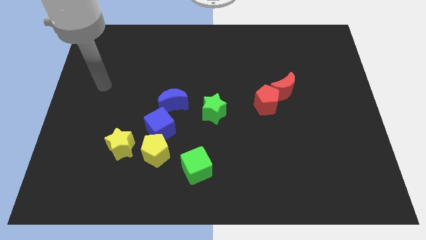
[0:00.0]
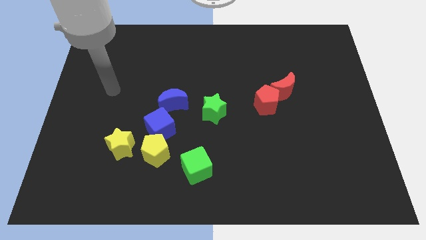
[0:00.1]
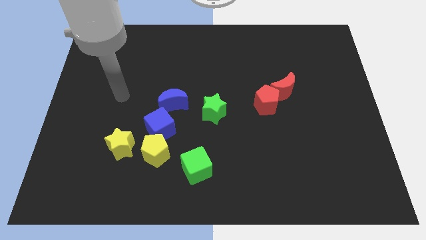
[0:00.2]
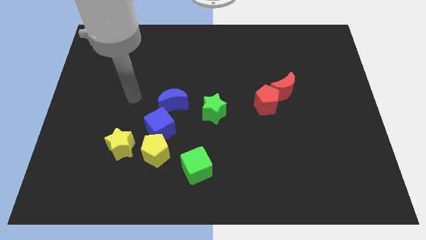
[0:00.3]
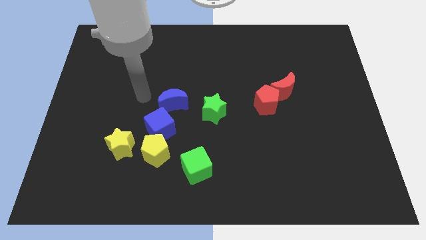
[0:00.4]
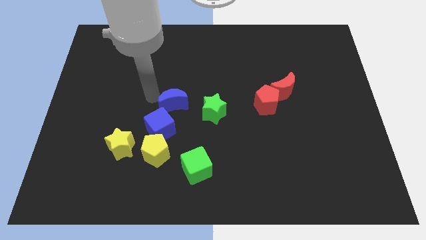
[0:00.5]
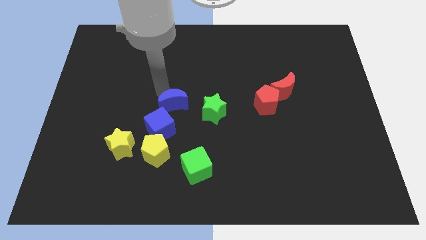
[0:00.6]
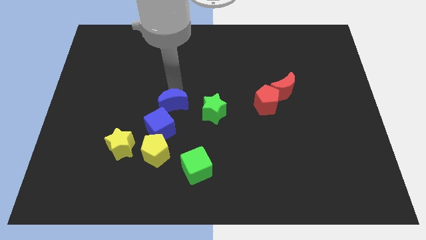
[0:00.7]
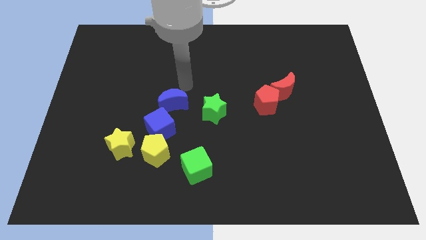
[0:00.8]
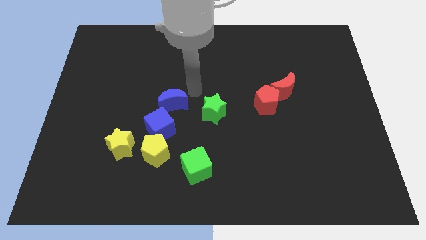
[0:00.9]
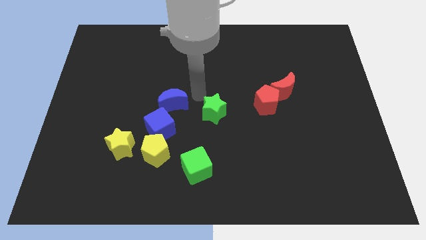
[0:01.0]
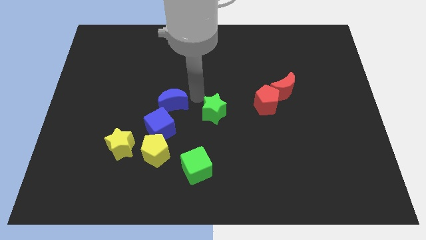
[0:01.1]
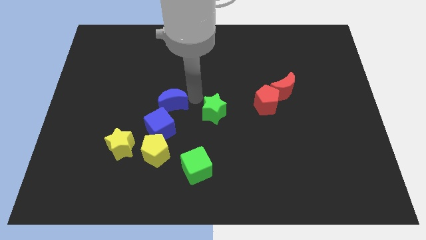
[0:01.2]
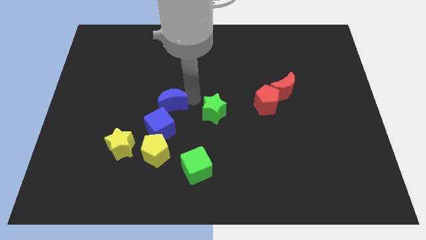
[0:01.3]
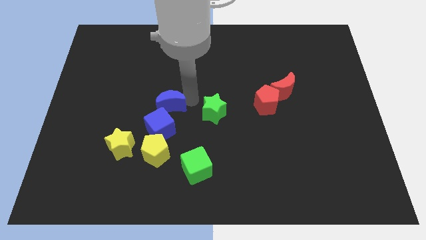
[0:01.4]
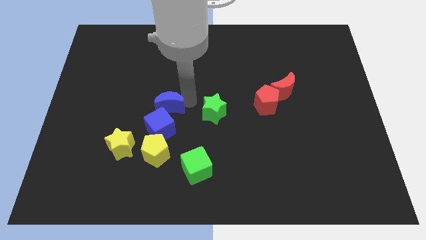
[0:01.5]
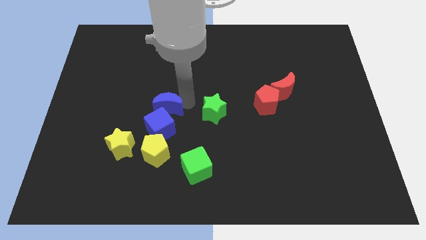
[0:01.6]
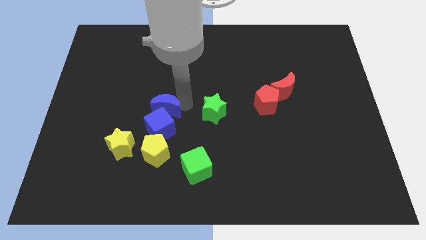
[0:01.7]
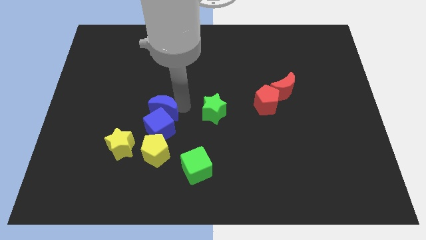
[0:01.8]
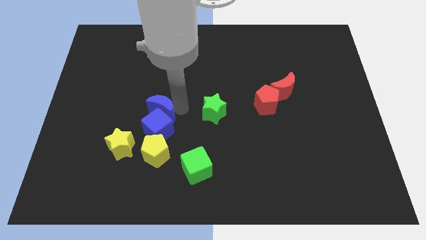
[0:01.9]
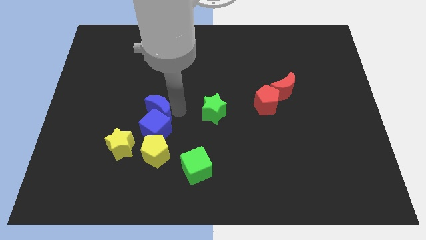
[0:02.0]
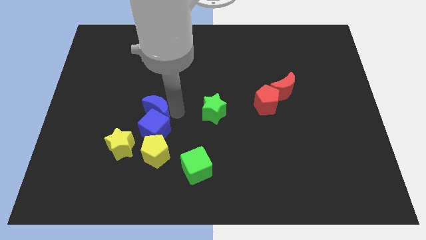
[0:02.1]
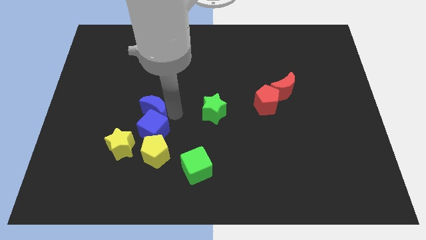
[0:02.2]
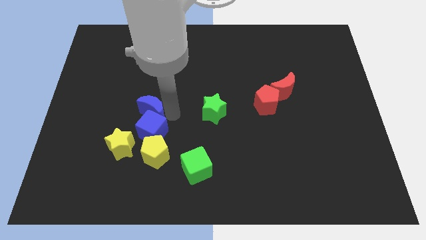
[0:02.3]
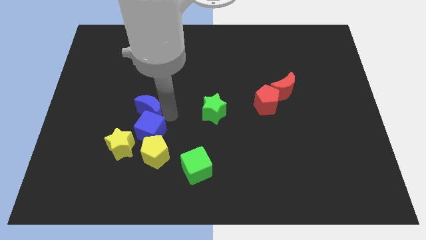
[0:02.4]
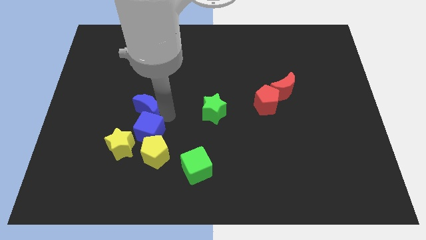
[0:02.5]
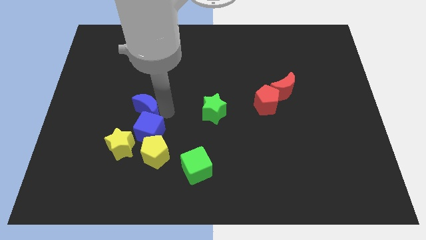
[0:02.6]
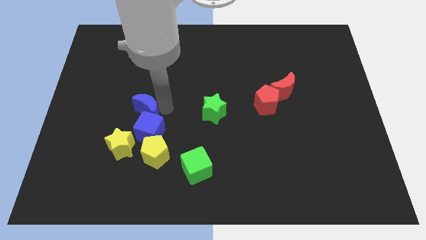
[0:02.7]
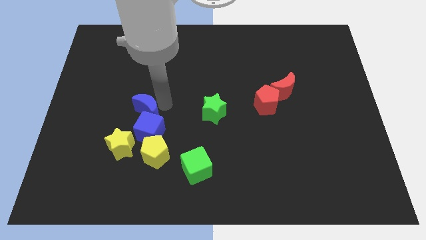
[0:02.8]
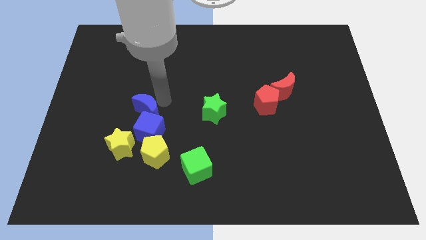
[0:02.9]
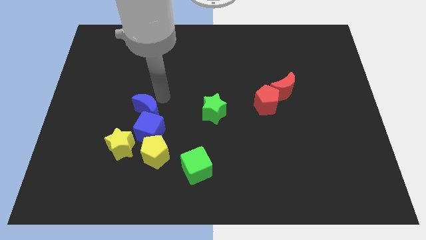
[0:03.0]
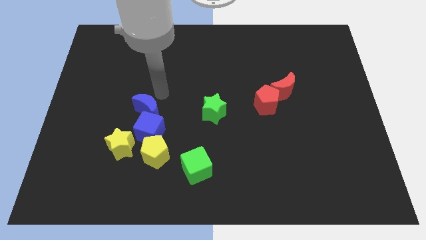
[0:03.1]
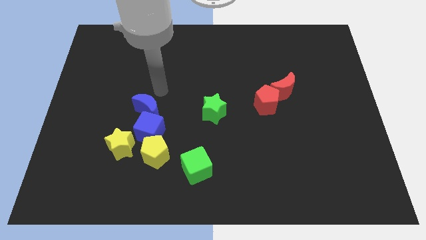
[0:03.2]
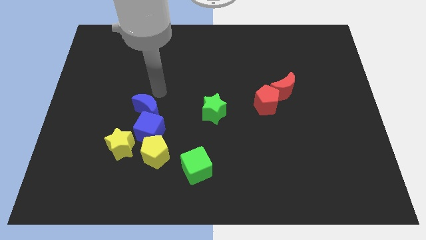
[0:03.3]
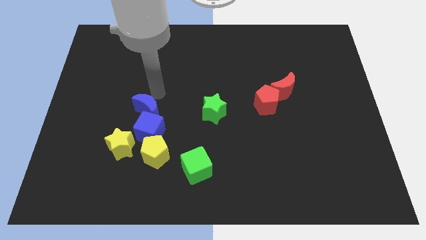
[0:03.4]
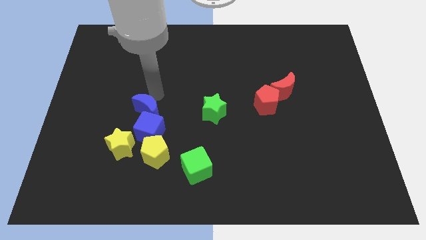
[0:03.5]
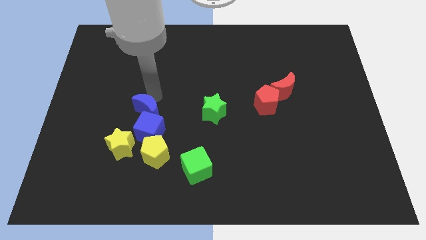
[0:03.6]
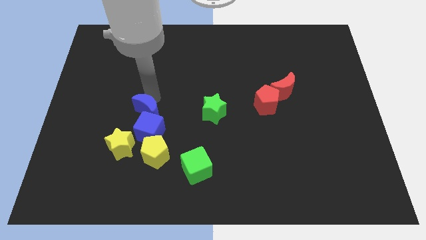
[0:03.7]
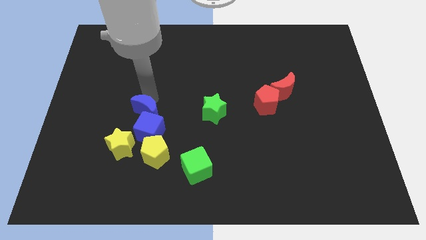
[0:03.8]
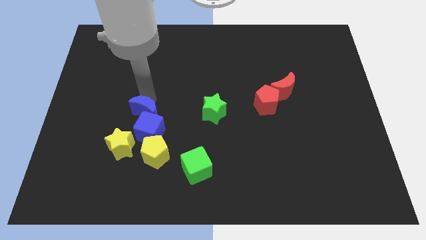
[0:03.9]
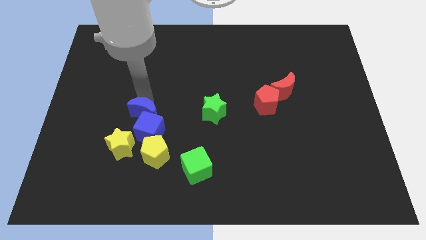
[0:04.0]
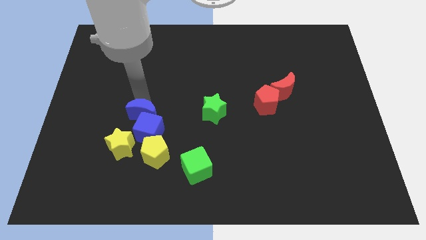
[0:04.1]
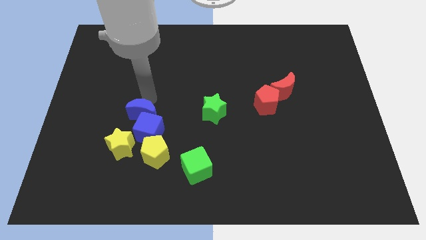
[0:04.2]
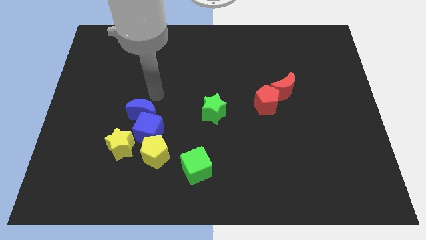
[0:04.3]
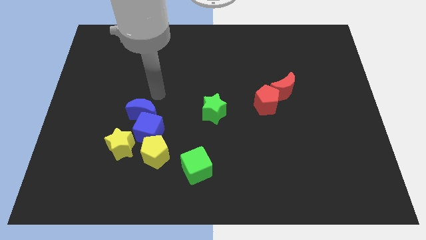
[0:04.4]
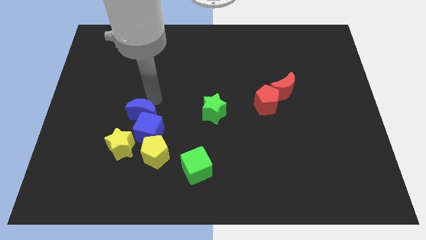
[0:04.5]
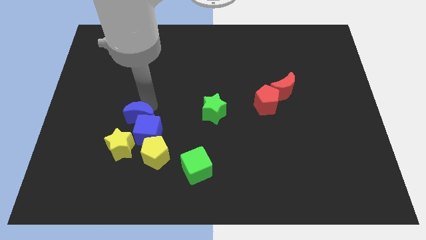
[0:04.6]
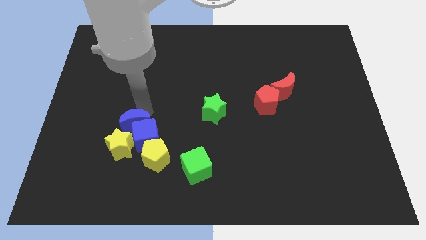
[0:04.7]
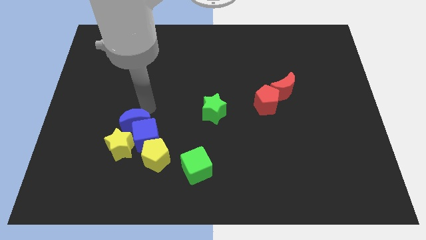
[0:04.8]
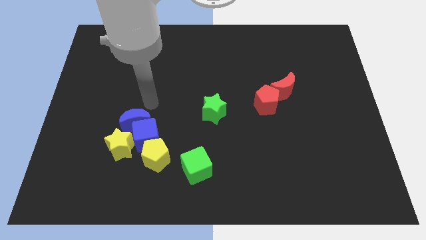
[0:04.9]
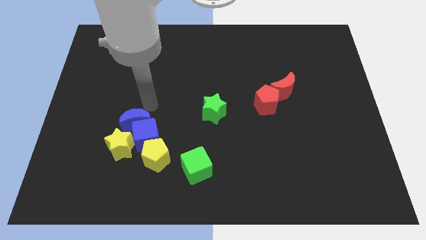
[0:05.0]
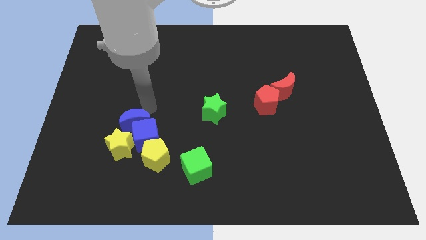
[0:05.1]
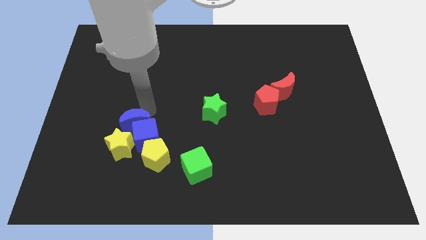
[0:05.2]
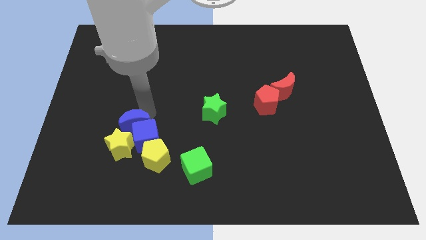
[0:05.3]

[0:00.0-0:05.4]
slide the blue moon towards the yellow star

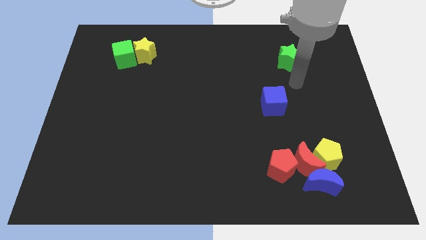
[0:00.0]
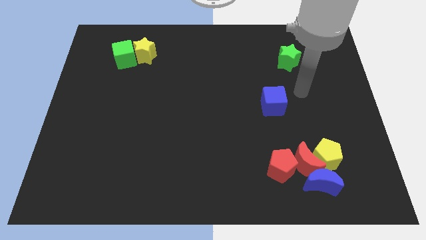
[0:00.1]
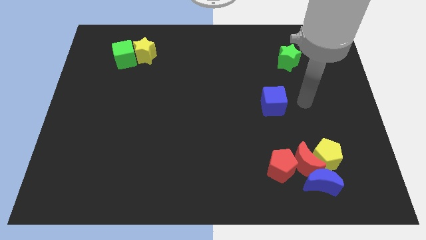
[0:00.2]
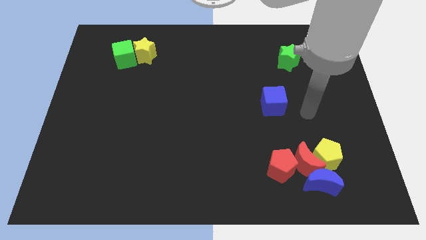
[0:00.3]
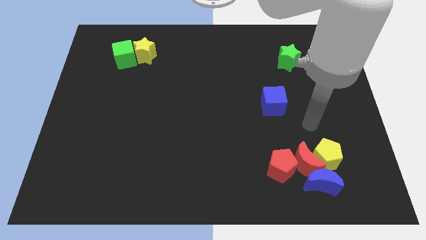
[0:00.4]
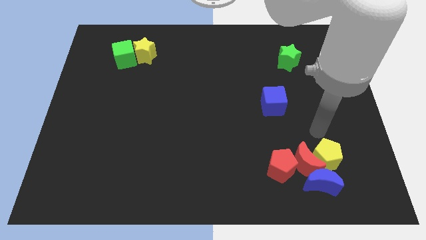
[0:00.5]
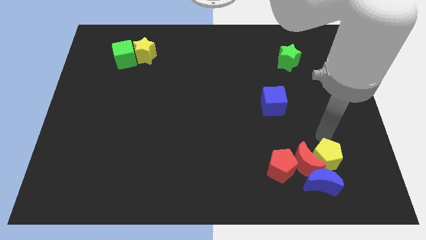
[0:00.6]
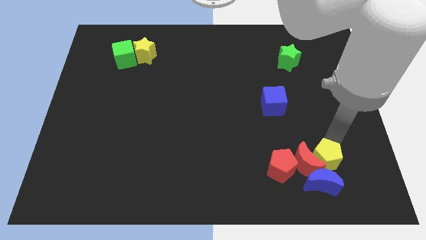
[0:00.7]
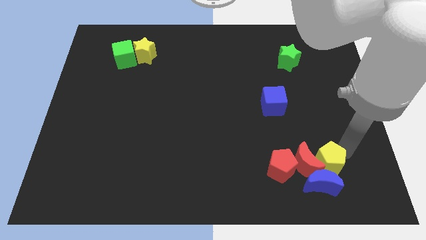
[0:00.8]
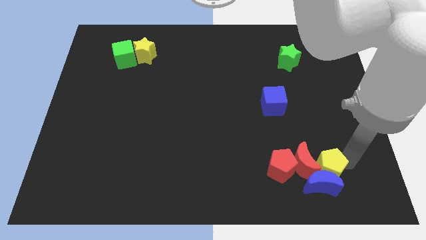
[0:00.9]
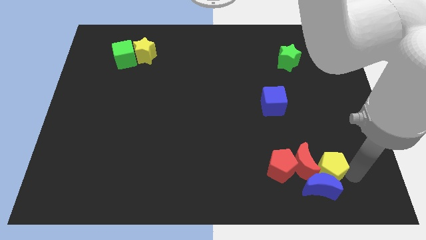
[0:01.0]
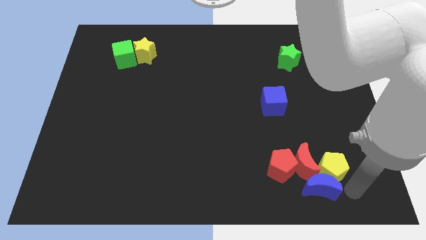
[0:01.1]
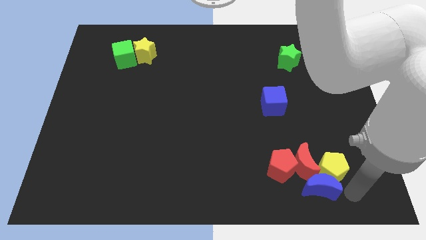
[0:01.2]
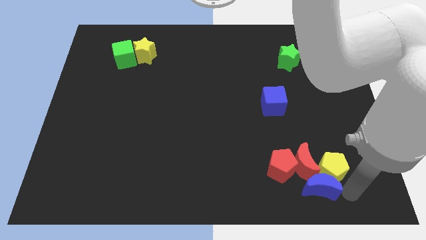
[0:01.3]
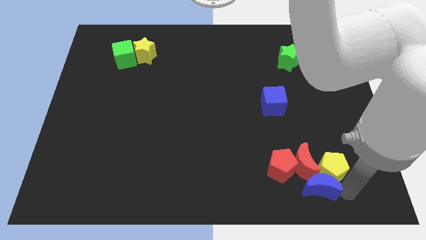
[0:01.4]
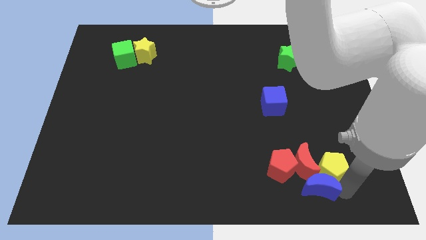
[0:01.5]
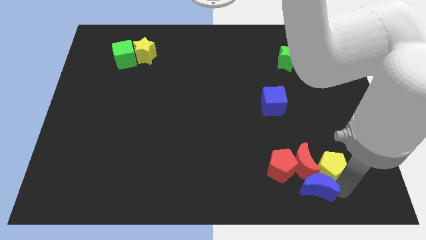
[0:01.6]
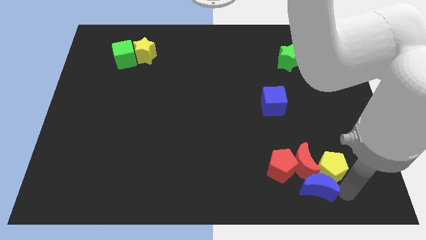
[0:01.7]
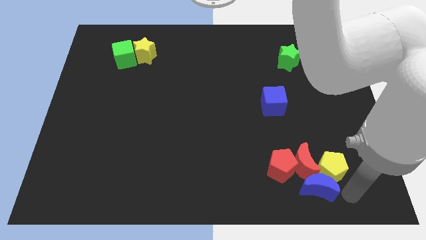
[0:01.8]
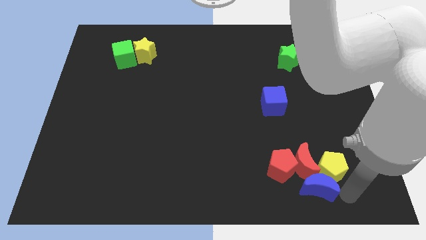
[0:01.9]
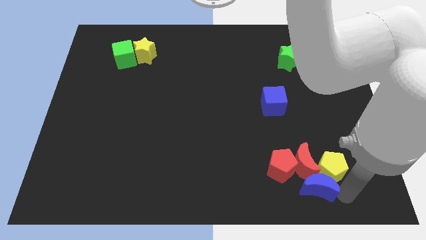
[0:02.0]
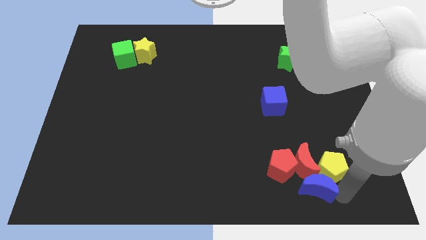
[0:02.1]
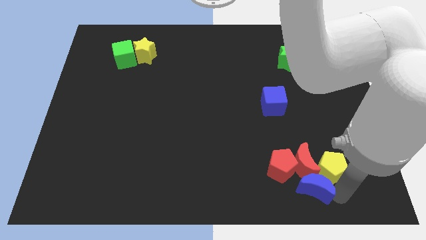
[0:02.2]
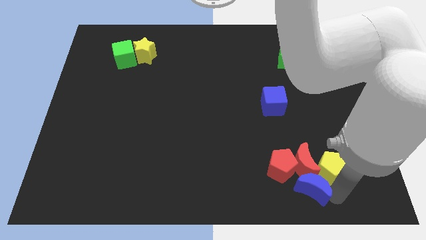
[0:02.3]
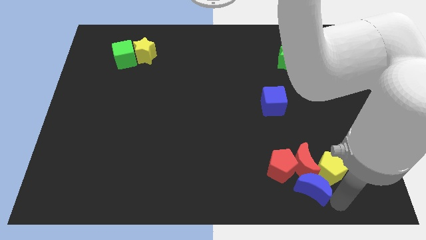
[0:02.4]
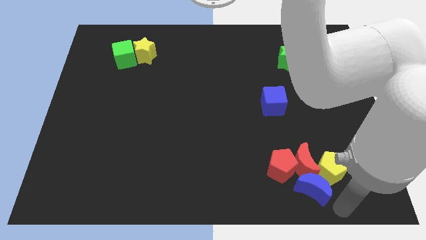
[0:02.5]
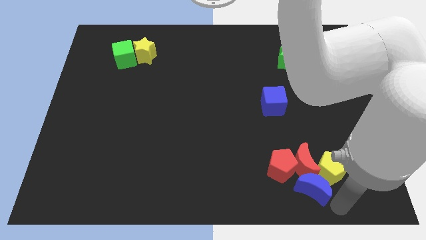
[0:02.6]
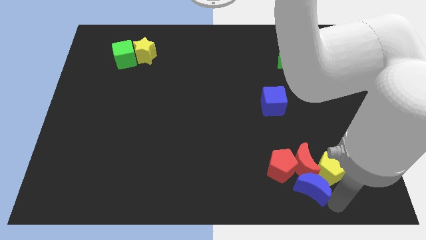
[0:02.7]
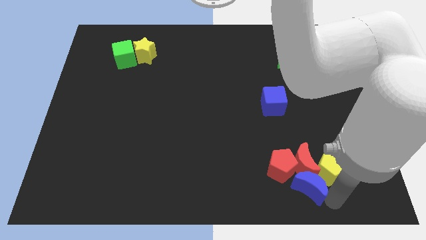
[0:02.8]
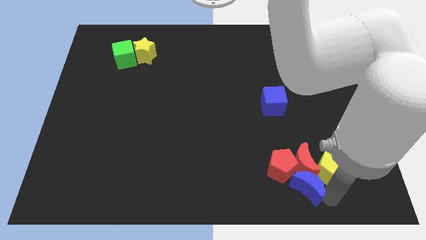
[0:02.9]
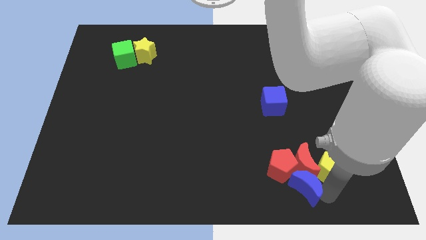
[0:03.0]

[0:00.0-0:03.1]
push the blue moon towards the red pentagon
